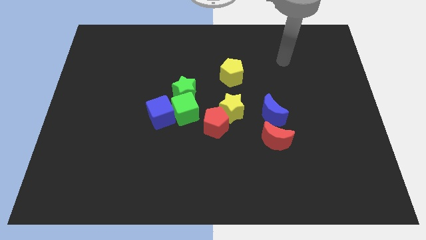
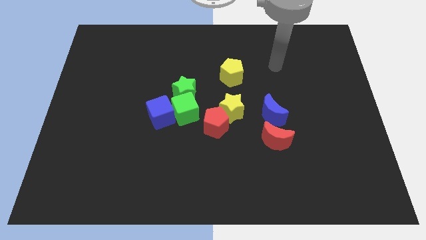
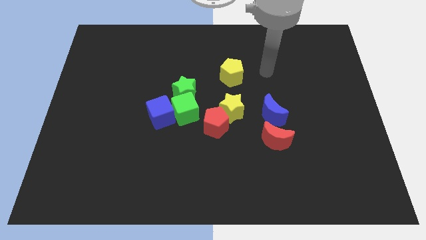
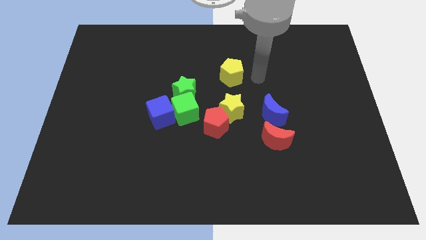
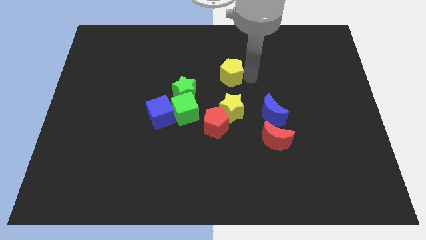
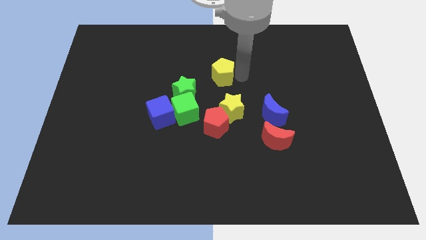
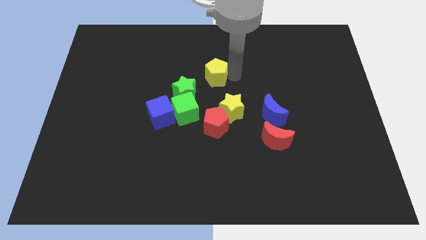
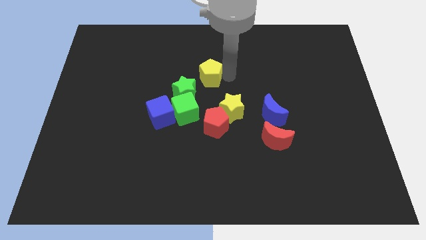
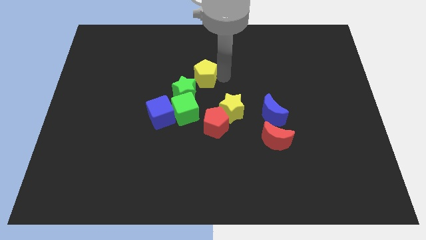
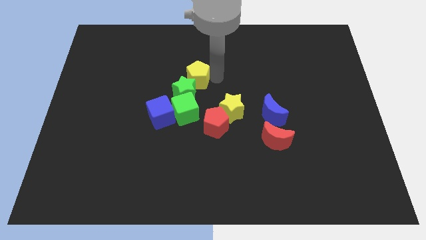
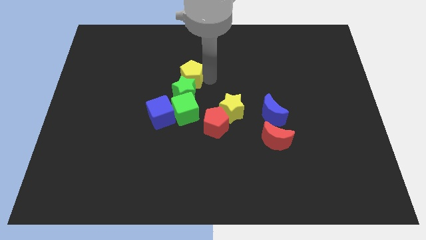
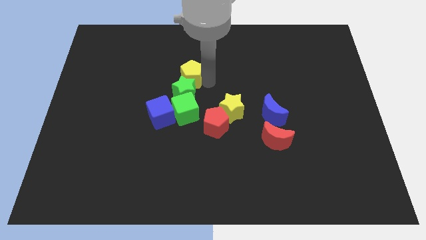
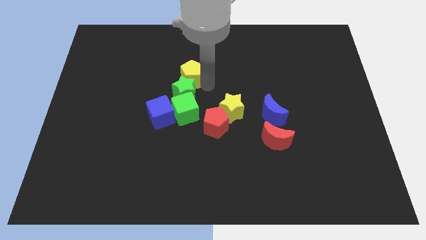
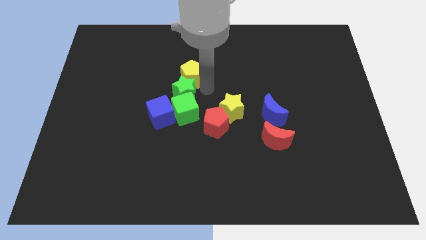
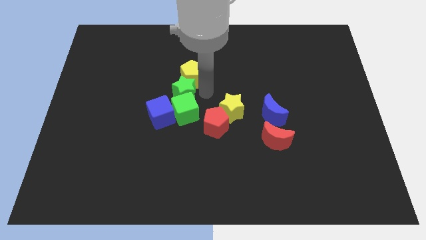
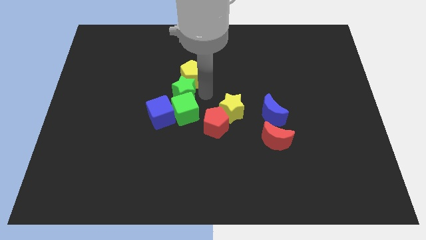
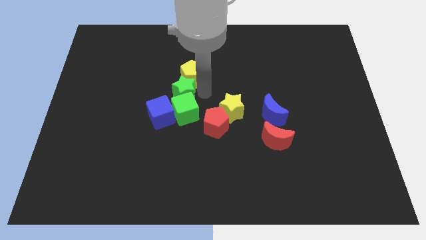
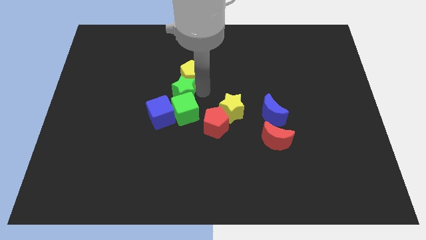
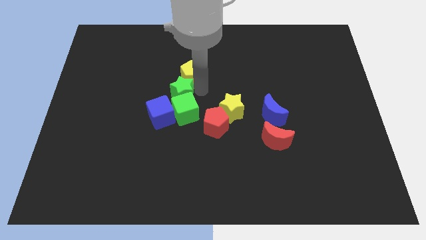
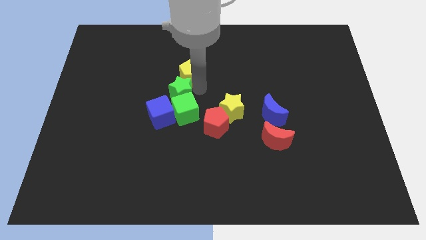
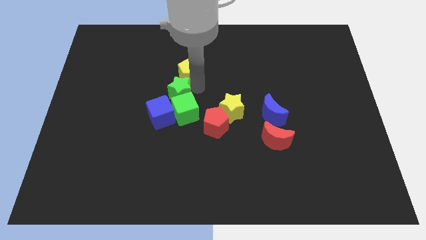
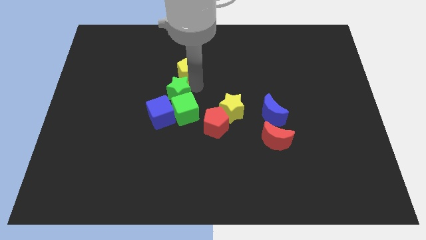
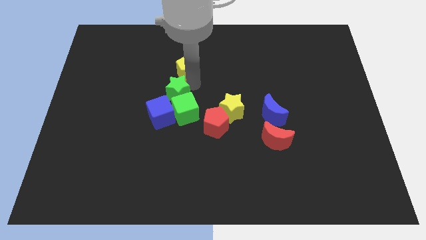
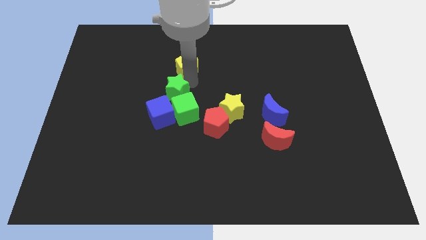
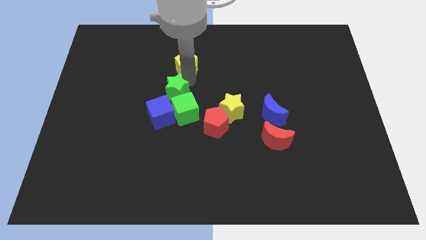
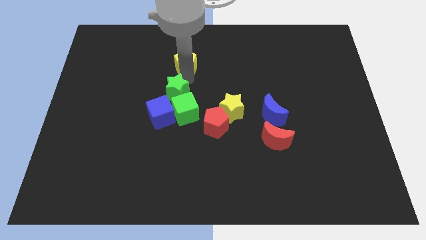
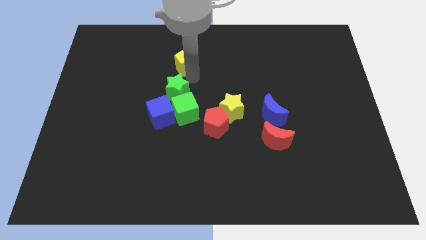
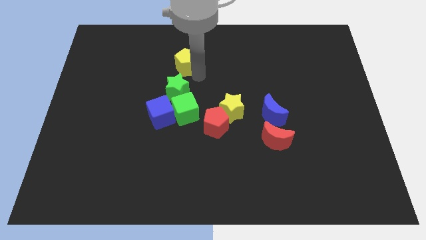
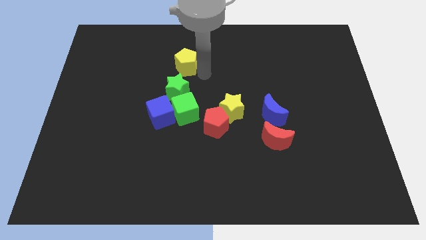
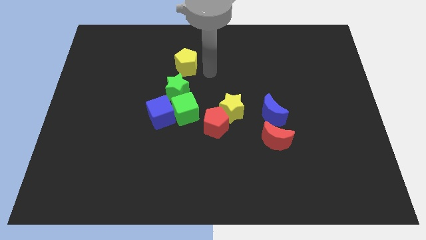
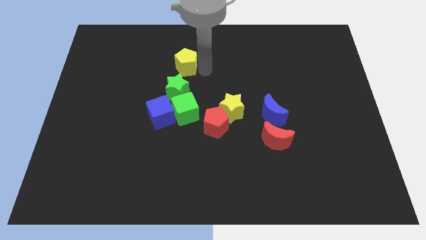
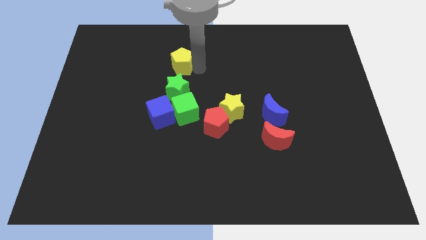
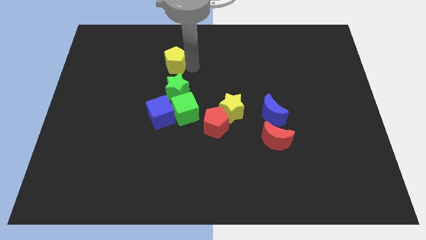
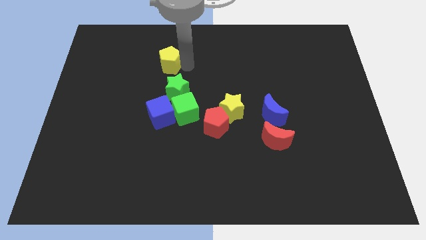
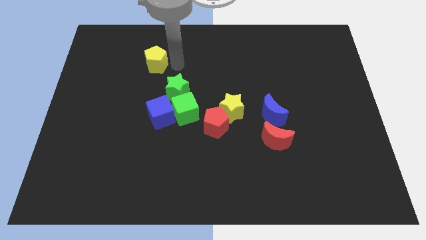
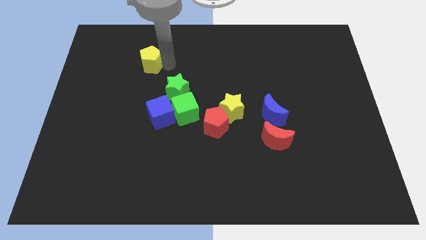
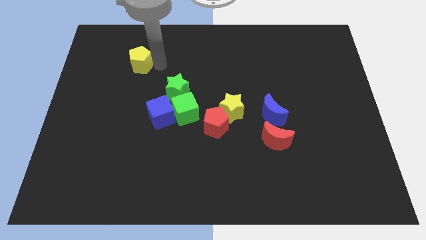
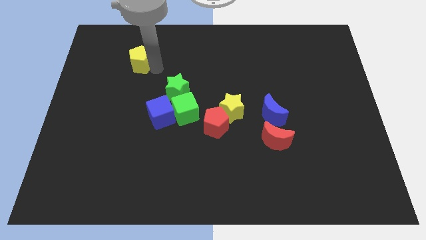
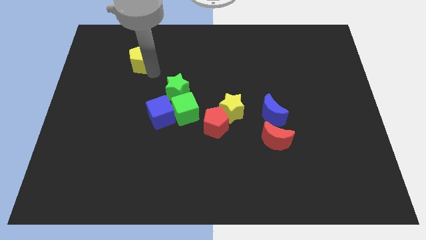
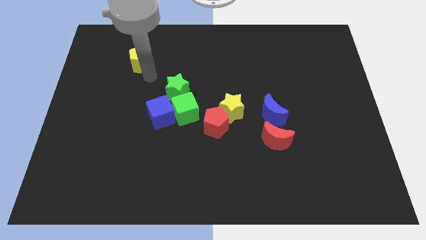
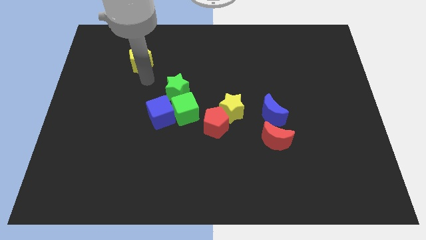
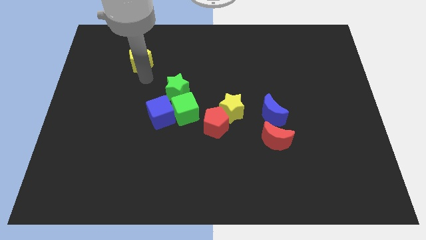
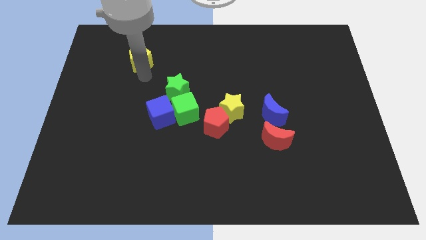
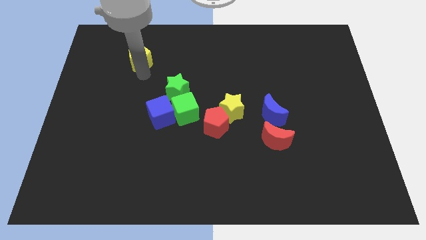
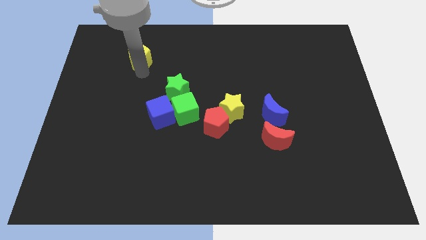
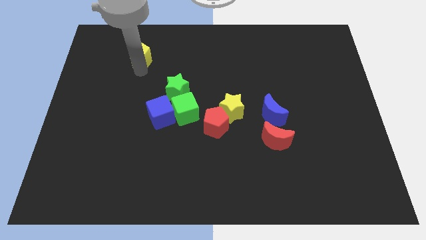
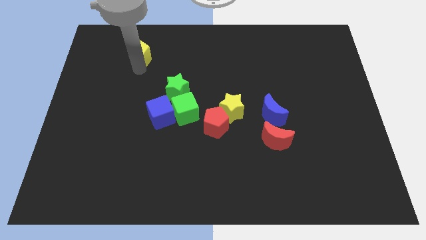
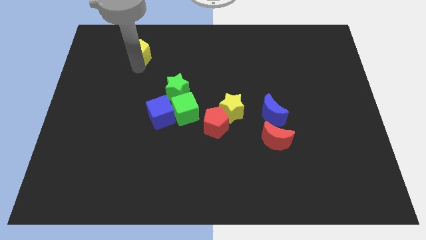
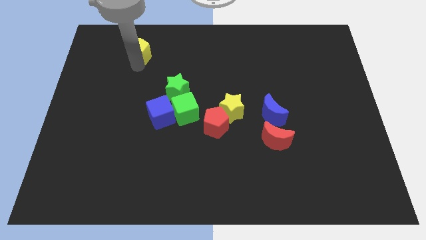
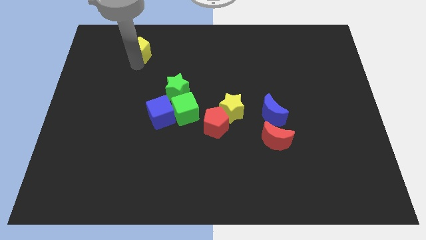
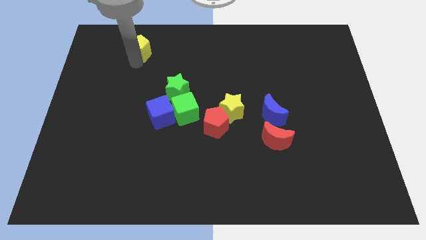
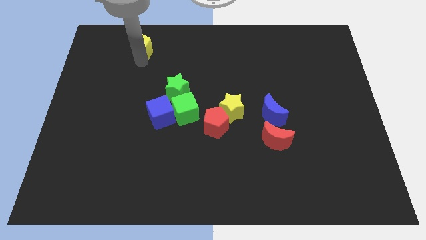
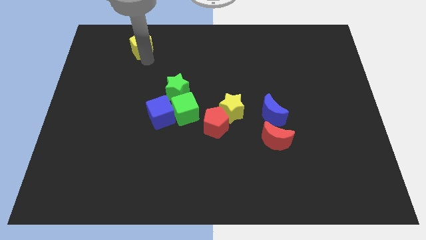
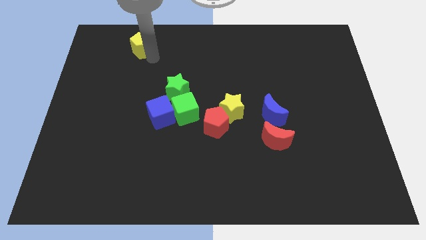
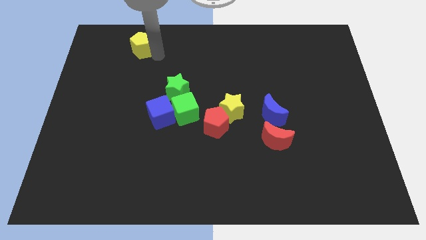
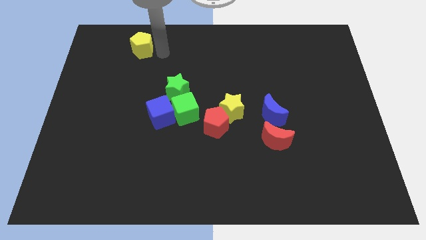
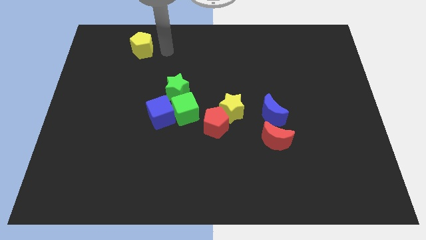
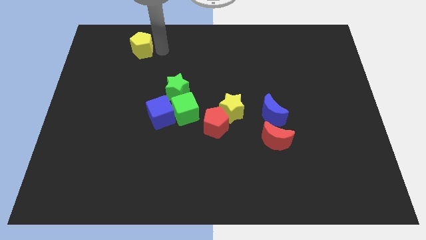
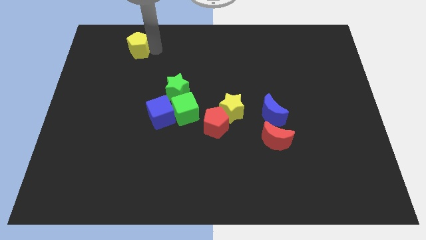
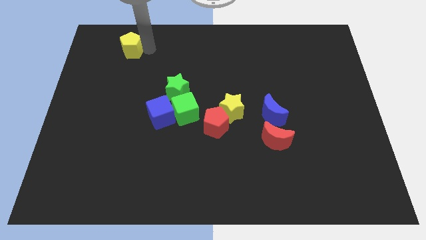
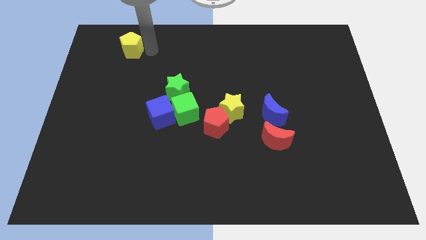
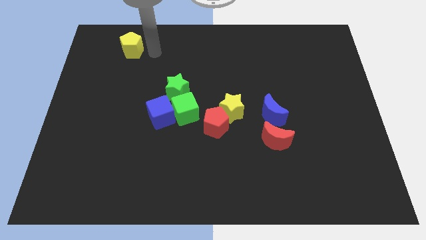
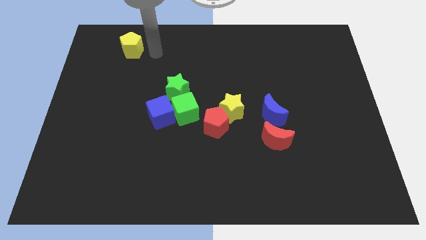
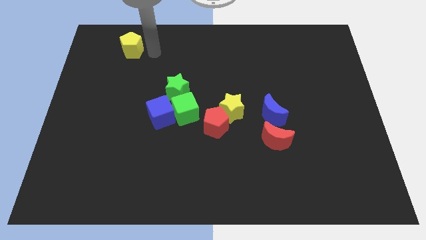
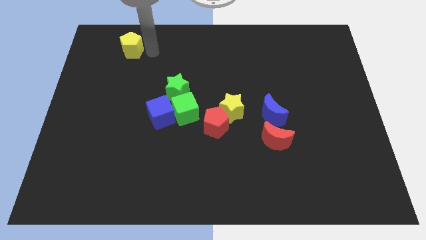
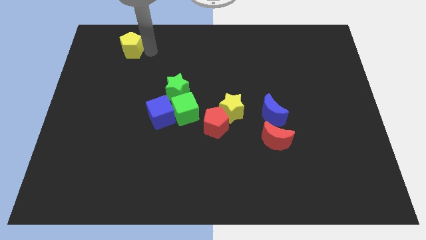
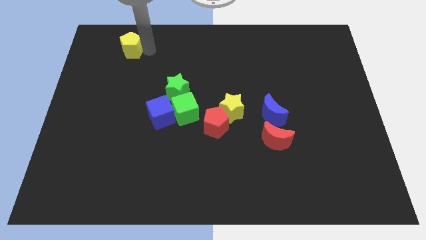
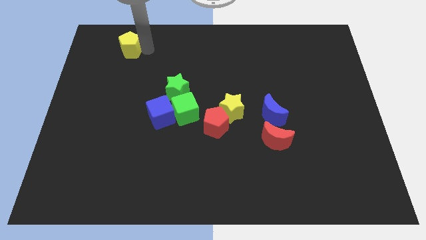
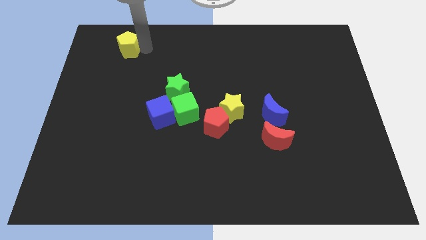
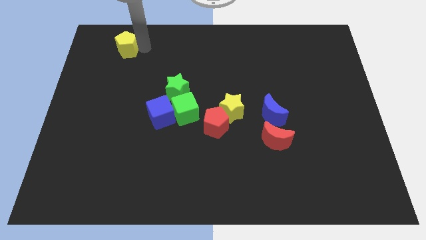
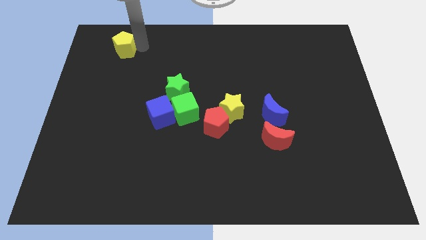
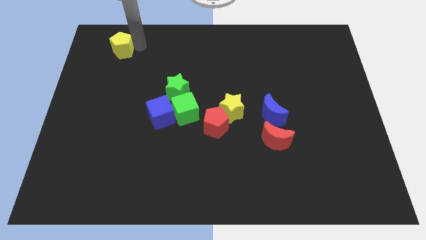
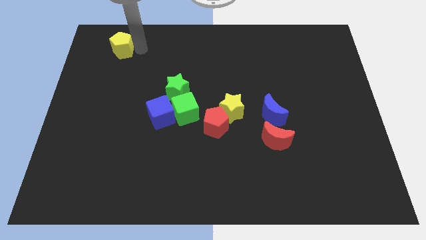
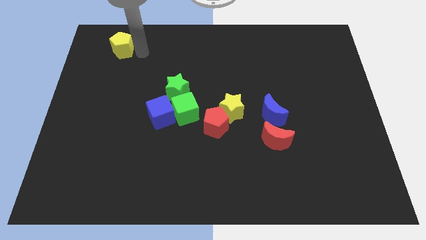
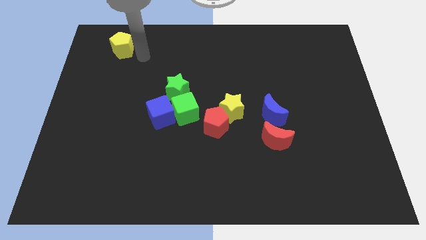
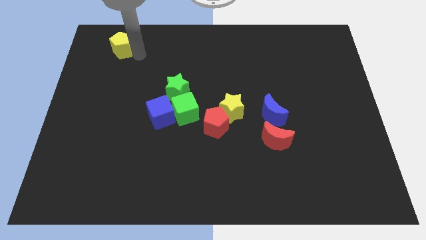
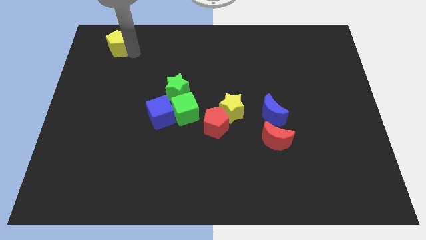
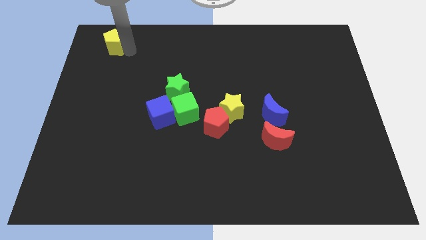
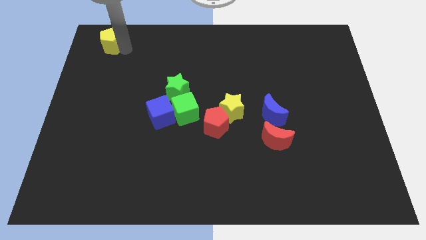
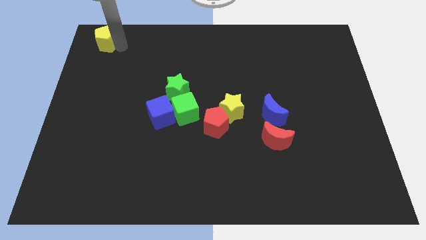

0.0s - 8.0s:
move the yellow pentagon to the top left of the board
